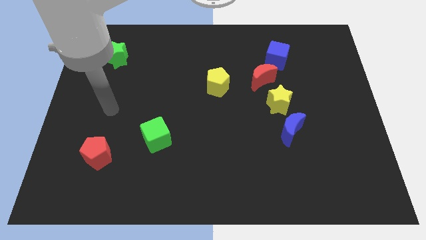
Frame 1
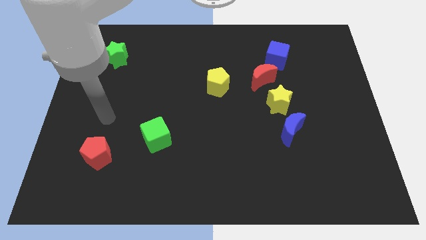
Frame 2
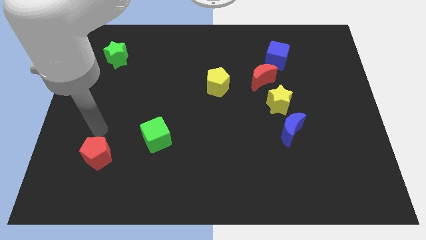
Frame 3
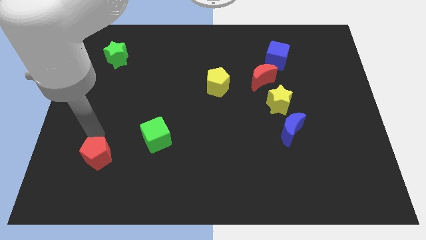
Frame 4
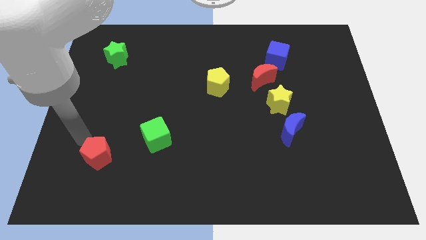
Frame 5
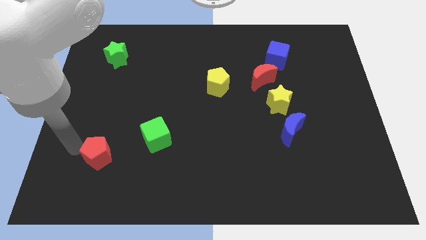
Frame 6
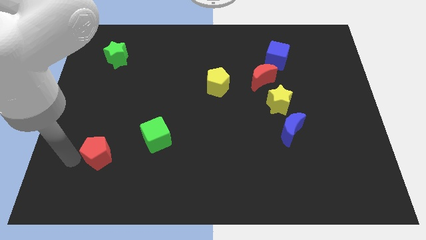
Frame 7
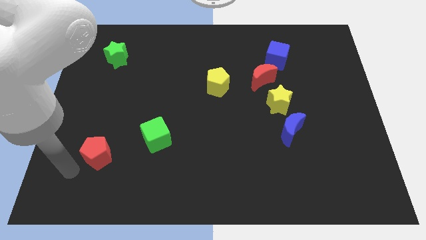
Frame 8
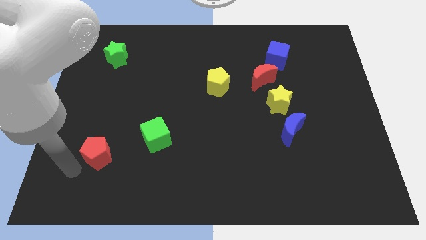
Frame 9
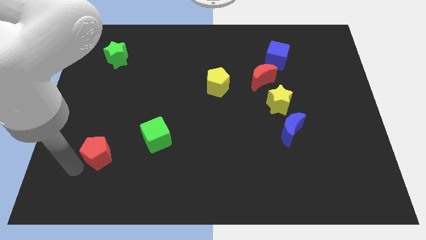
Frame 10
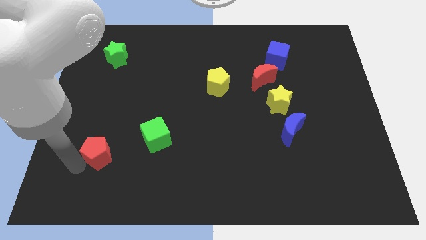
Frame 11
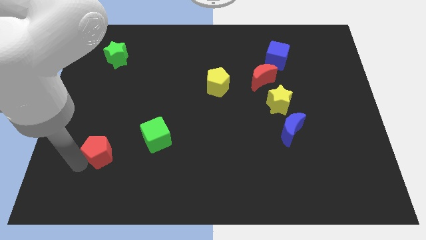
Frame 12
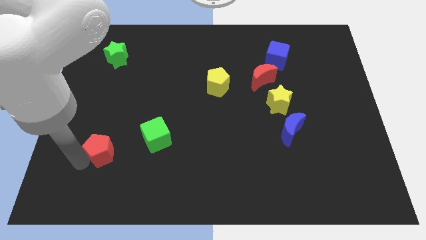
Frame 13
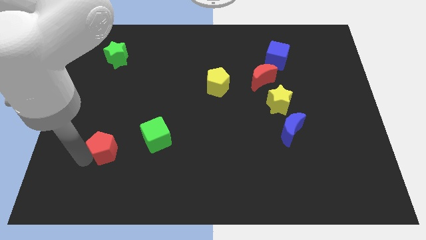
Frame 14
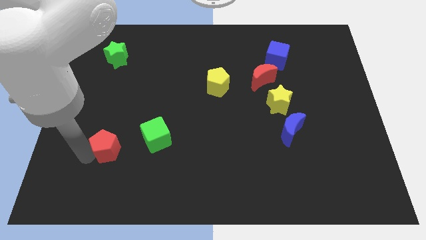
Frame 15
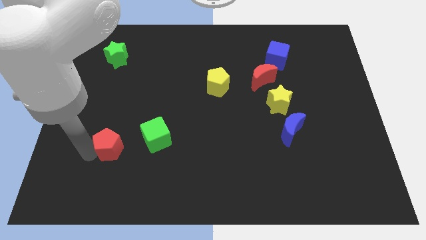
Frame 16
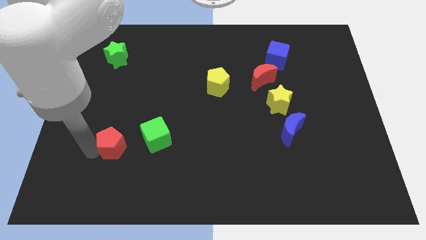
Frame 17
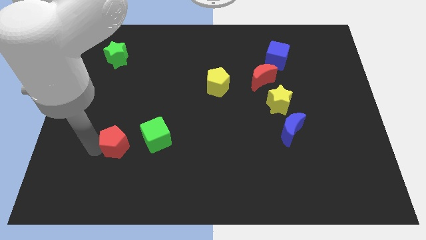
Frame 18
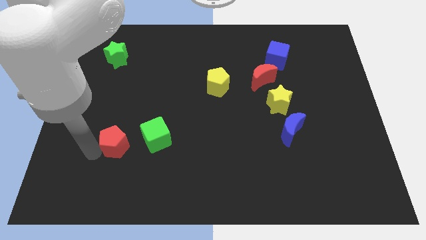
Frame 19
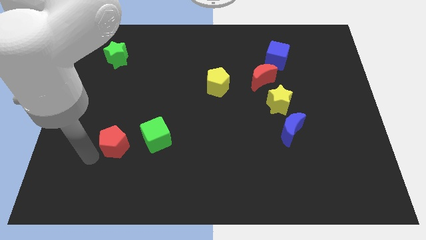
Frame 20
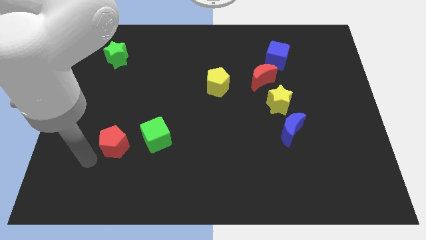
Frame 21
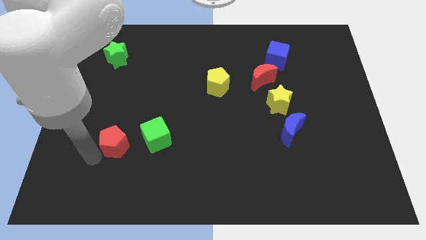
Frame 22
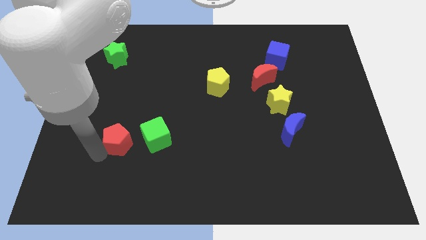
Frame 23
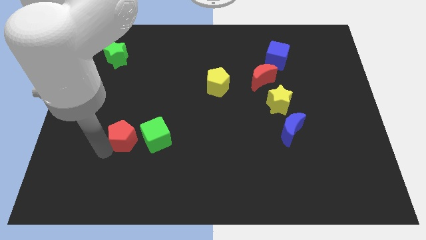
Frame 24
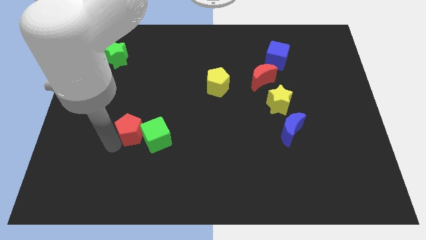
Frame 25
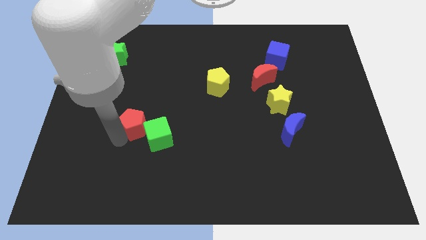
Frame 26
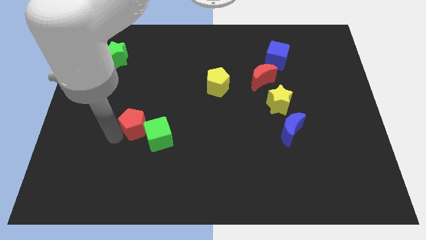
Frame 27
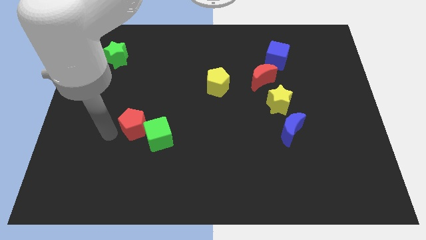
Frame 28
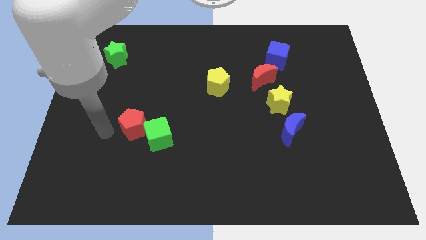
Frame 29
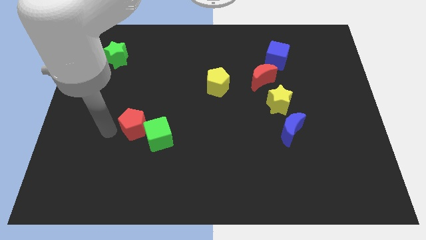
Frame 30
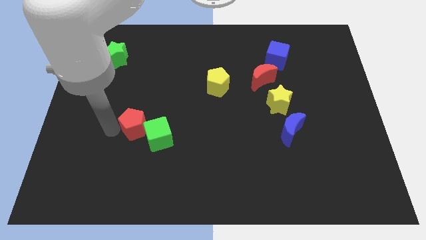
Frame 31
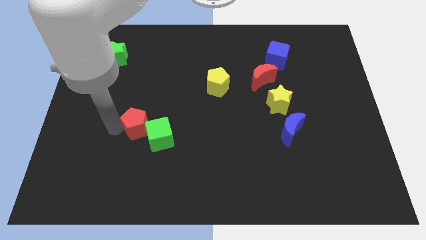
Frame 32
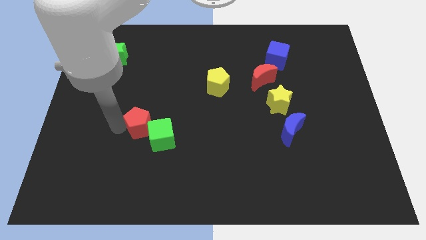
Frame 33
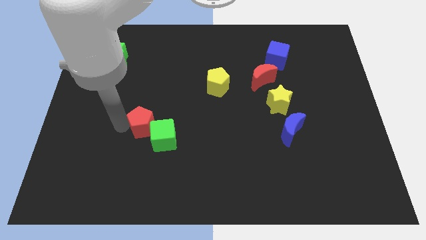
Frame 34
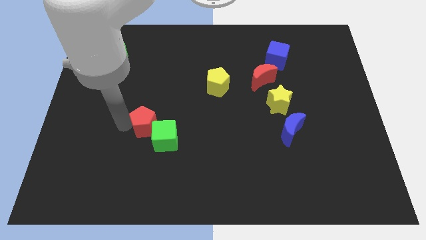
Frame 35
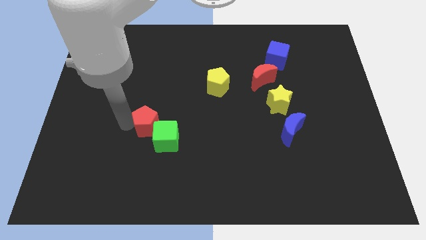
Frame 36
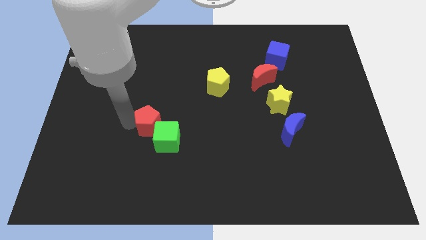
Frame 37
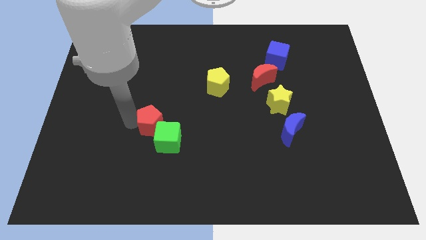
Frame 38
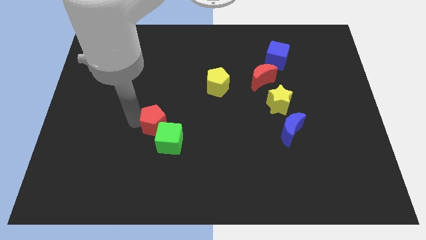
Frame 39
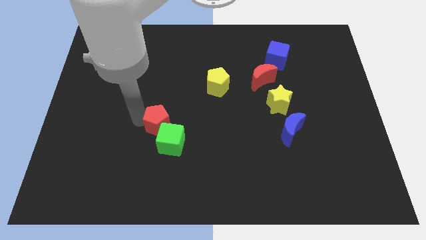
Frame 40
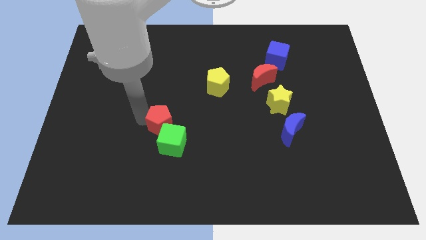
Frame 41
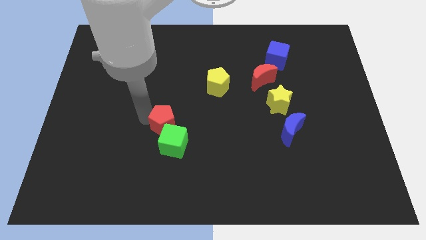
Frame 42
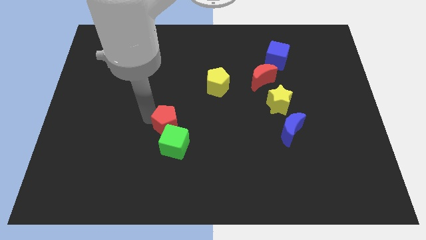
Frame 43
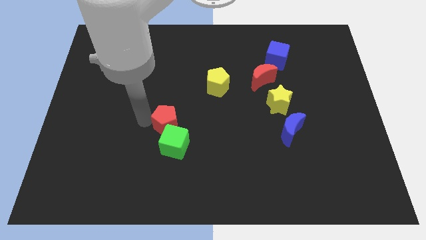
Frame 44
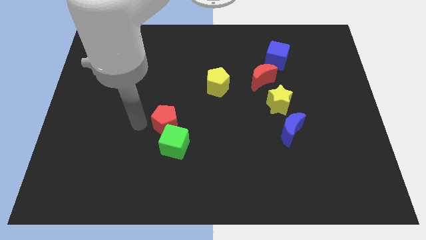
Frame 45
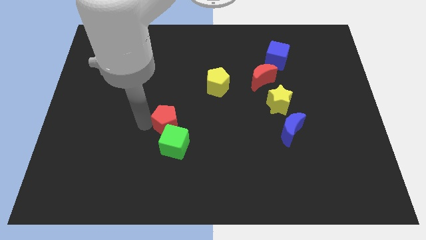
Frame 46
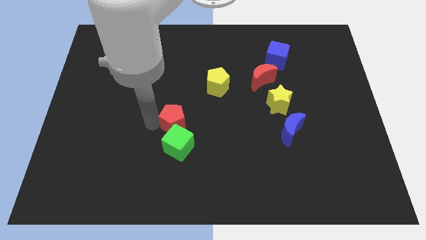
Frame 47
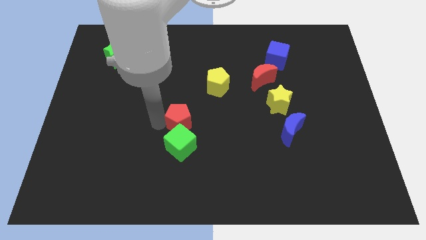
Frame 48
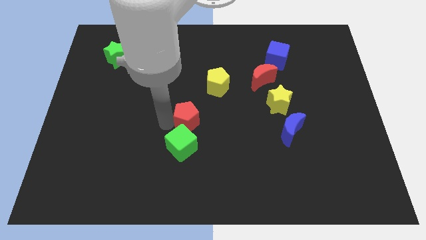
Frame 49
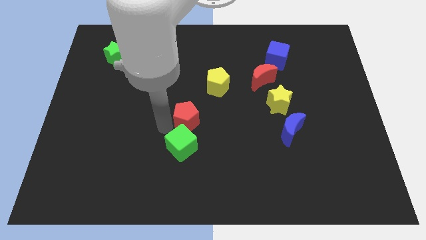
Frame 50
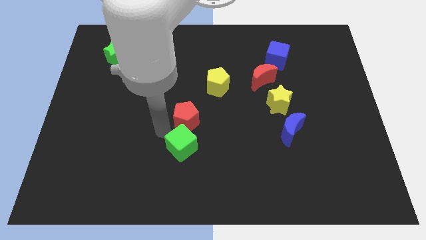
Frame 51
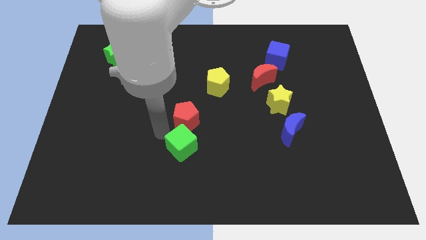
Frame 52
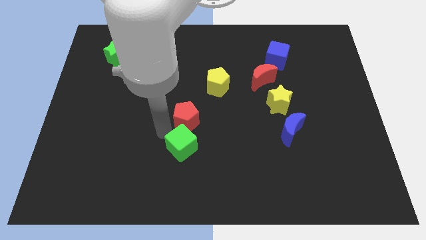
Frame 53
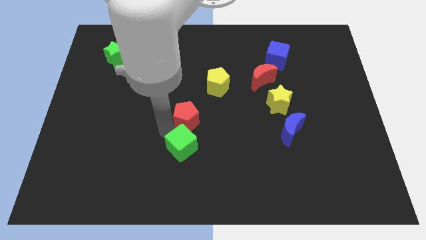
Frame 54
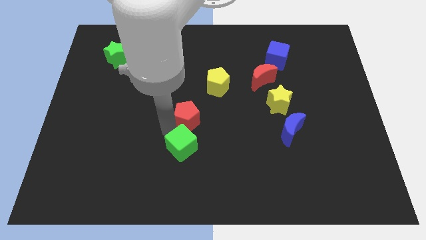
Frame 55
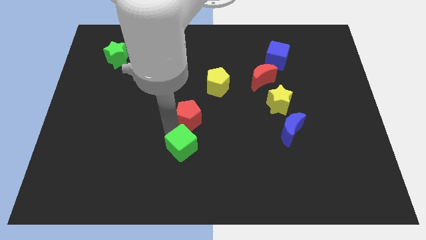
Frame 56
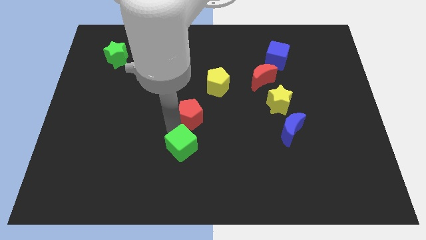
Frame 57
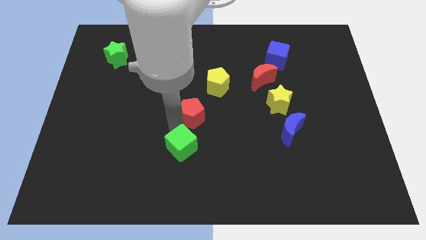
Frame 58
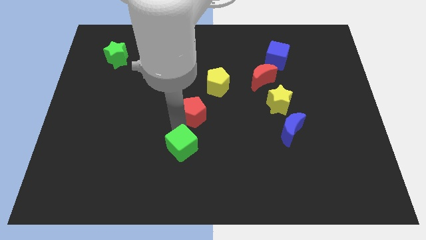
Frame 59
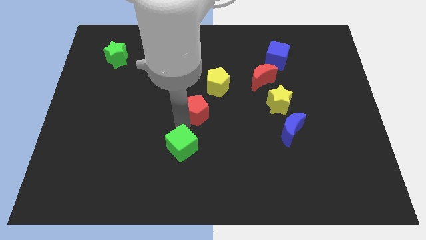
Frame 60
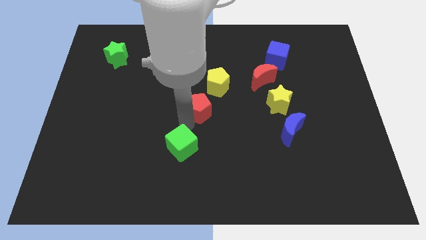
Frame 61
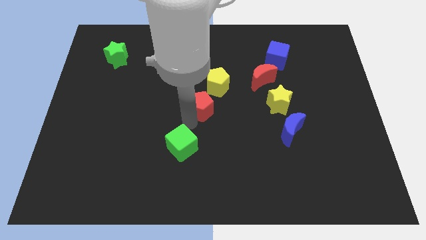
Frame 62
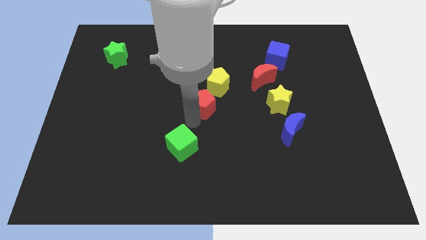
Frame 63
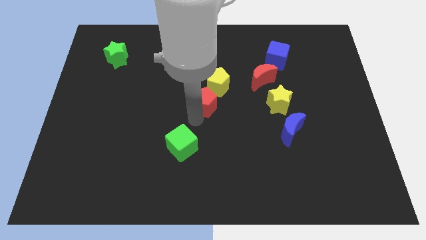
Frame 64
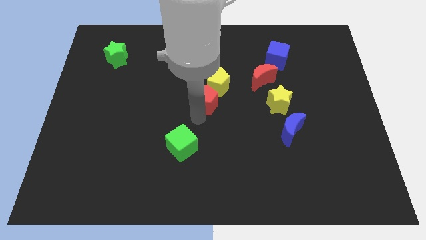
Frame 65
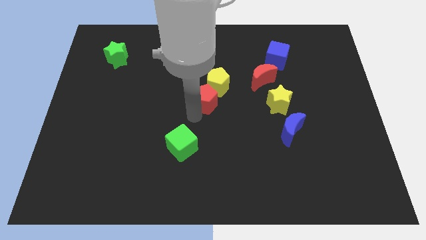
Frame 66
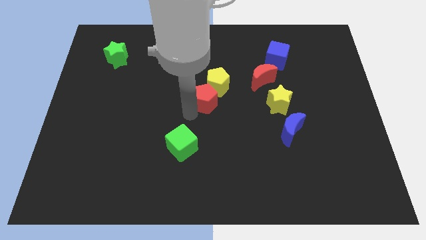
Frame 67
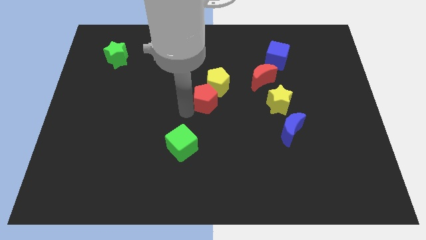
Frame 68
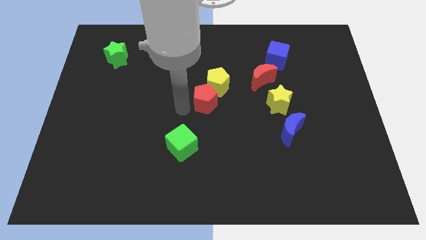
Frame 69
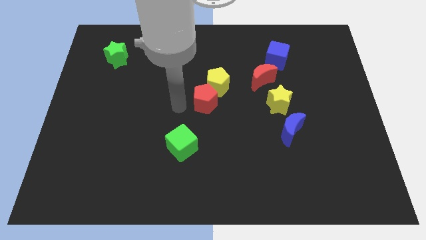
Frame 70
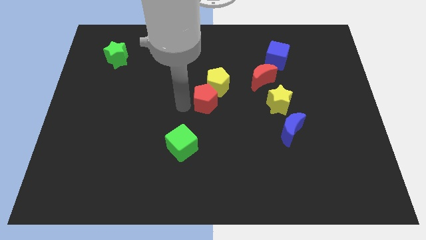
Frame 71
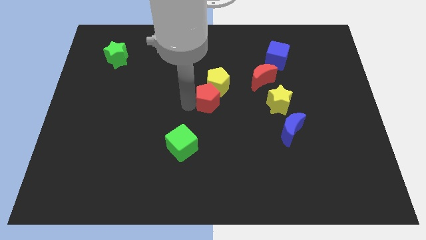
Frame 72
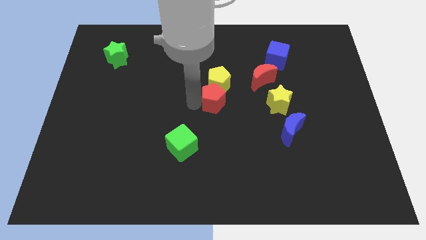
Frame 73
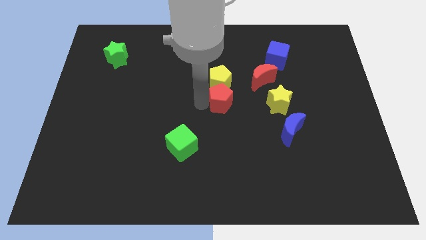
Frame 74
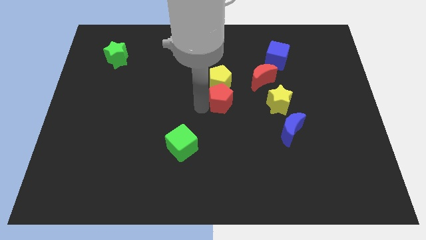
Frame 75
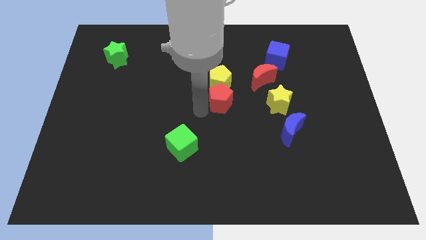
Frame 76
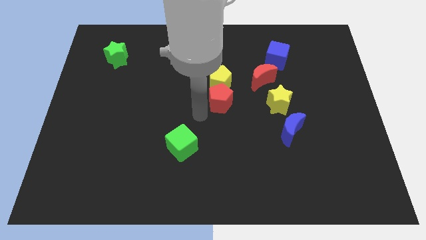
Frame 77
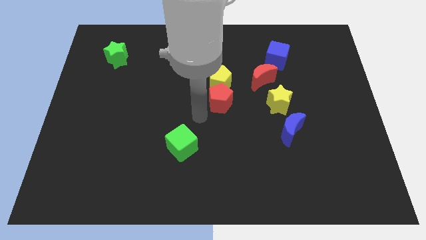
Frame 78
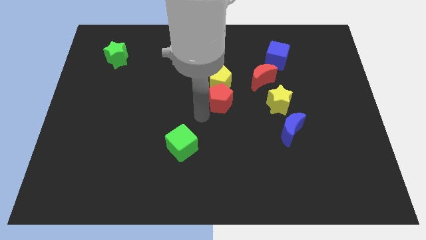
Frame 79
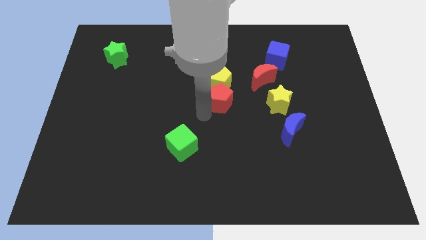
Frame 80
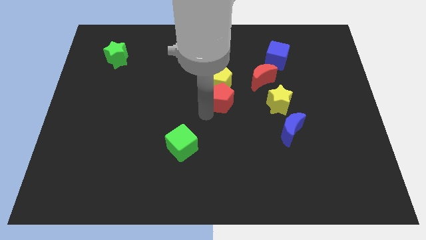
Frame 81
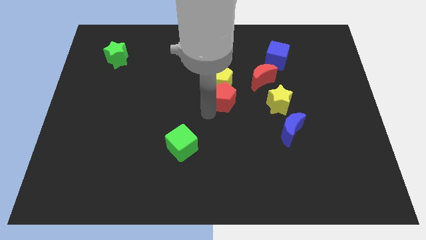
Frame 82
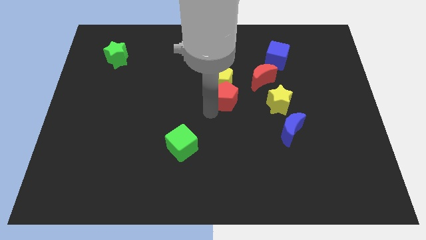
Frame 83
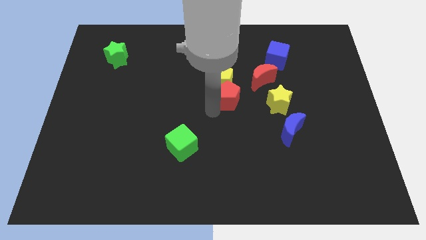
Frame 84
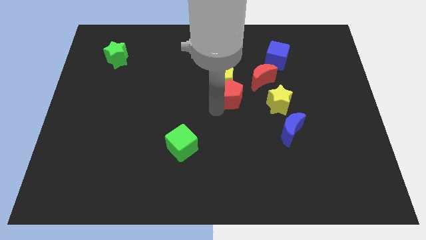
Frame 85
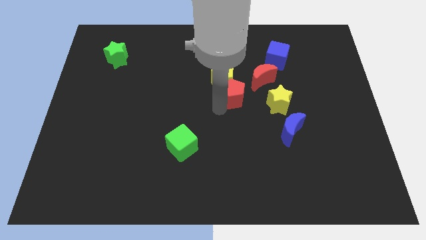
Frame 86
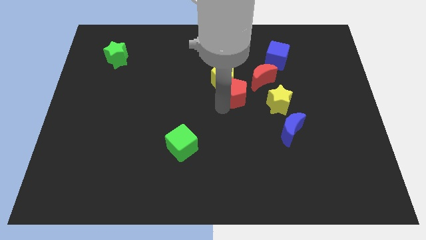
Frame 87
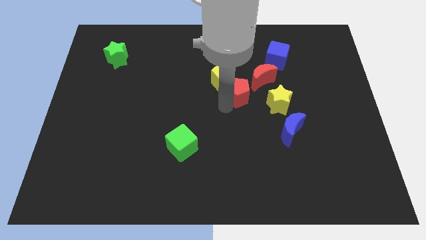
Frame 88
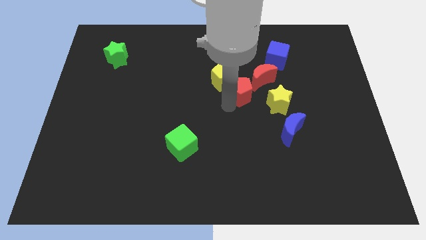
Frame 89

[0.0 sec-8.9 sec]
push the red pentagon diagonally up and to the left of the yellow star
